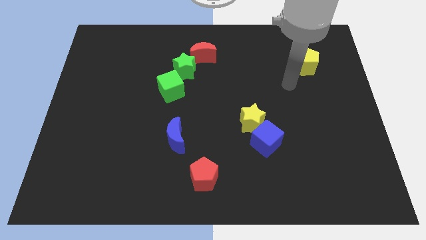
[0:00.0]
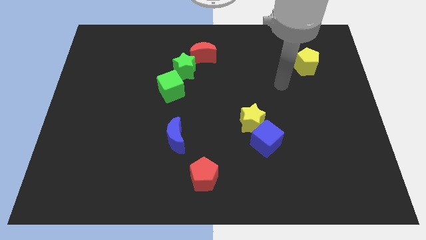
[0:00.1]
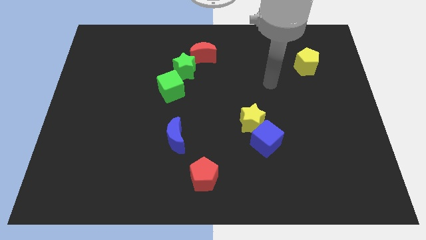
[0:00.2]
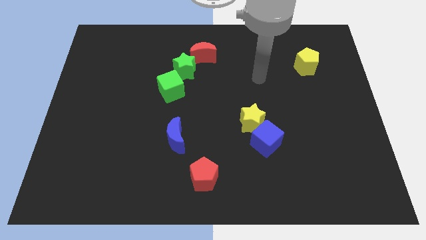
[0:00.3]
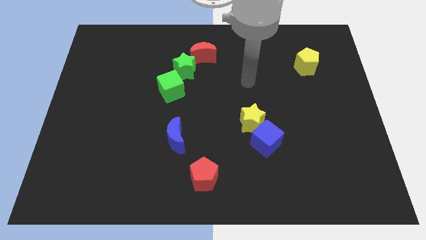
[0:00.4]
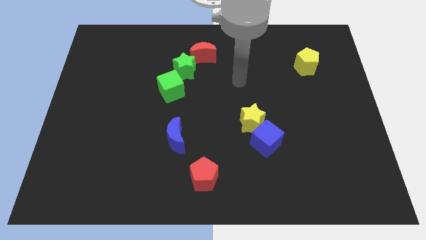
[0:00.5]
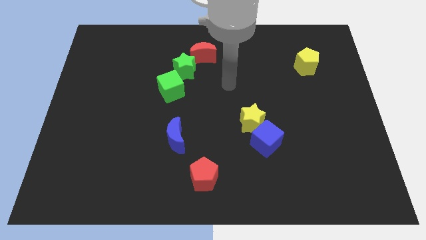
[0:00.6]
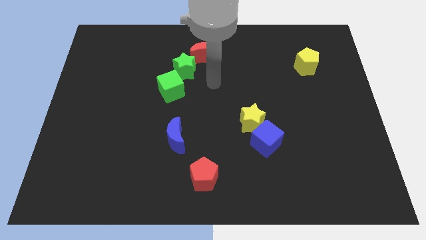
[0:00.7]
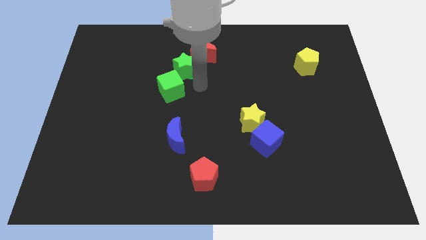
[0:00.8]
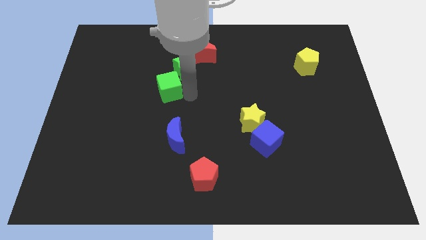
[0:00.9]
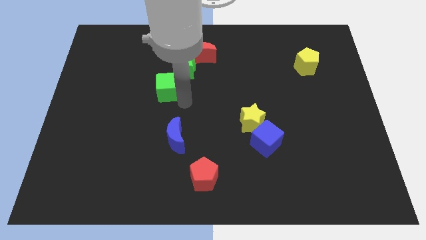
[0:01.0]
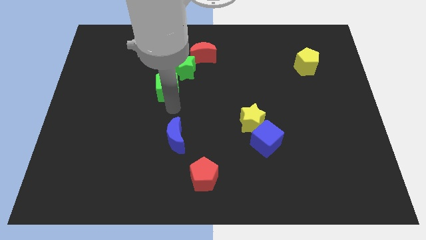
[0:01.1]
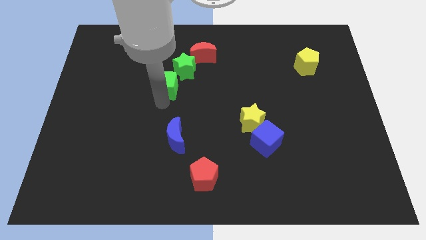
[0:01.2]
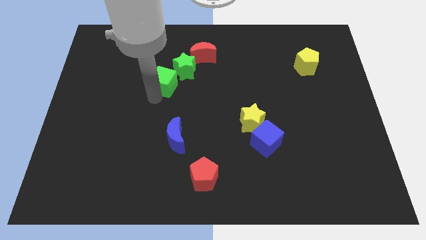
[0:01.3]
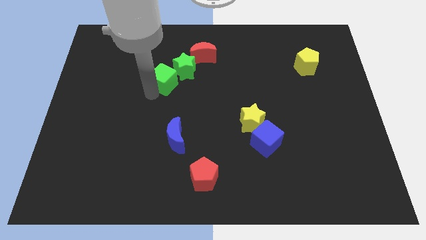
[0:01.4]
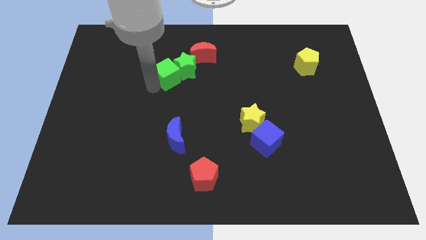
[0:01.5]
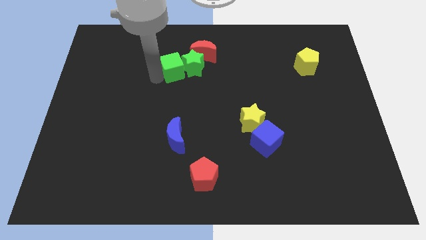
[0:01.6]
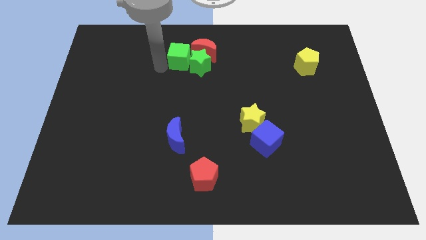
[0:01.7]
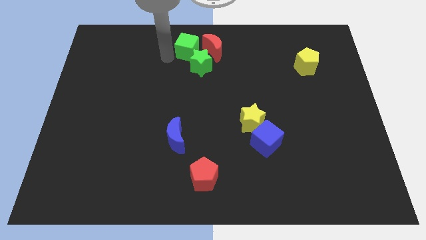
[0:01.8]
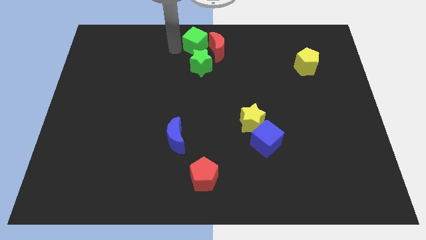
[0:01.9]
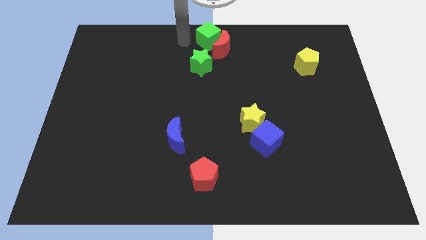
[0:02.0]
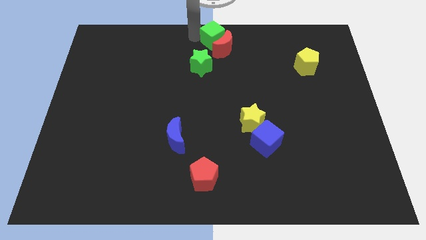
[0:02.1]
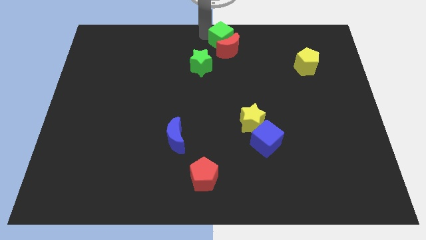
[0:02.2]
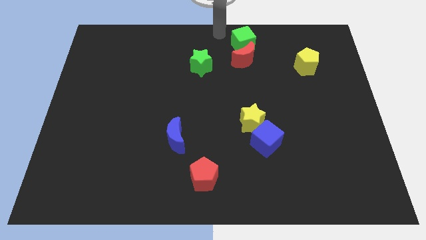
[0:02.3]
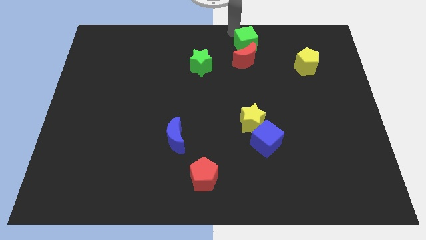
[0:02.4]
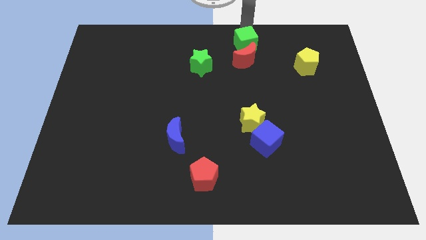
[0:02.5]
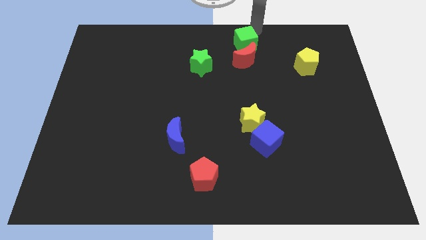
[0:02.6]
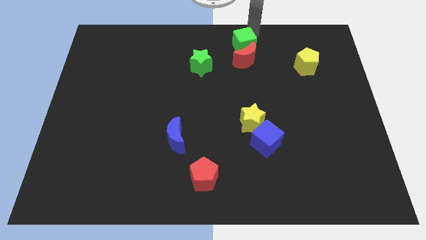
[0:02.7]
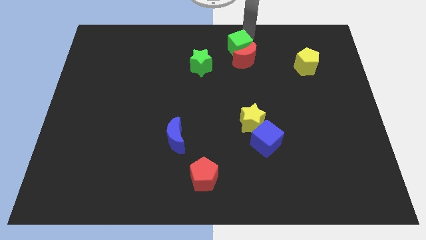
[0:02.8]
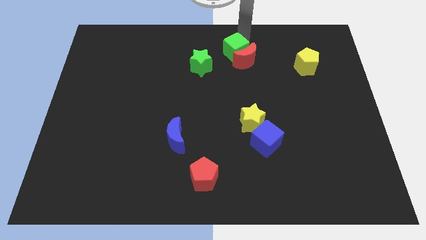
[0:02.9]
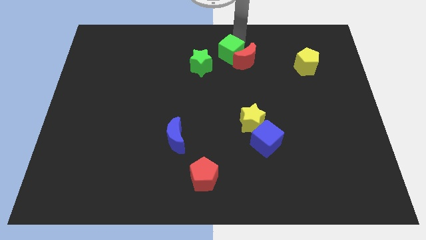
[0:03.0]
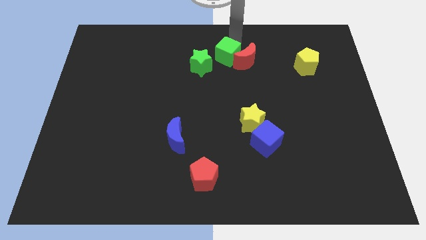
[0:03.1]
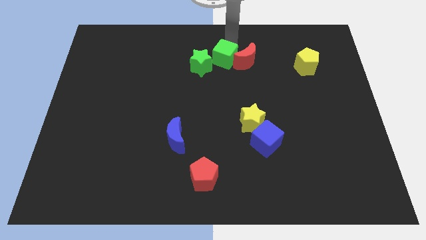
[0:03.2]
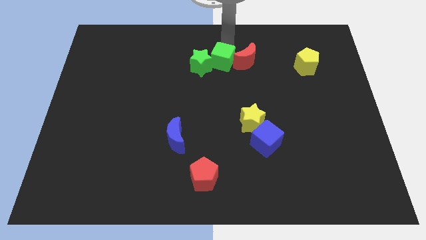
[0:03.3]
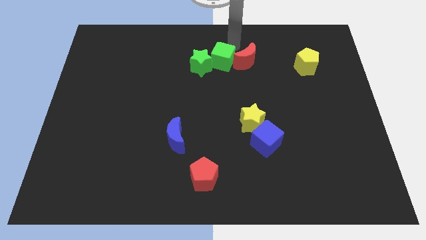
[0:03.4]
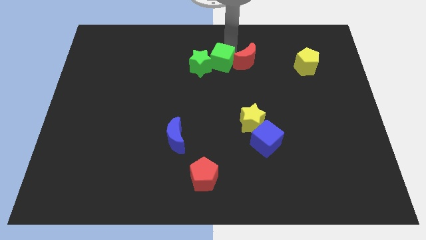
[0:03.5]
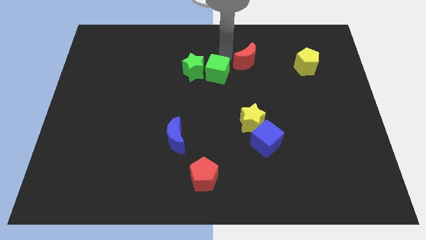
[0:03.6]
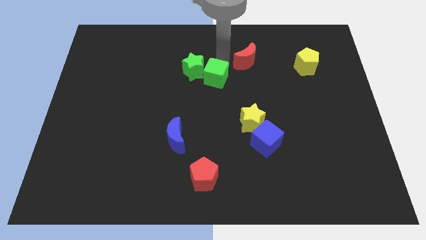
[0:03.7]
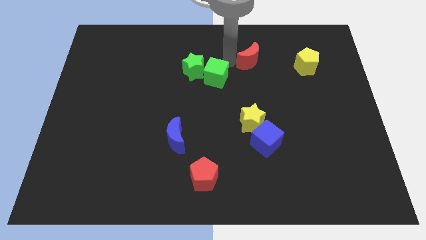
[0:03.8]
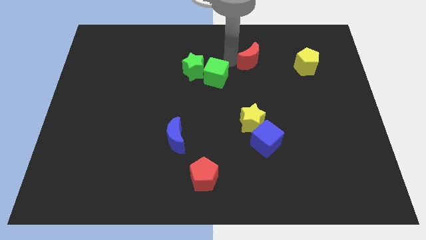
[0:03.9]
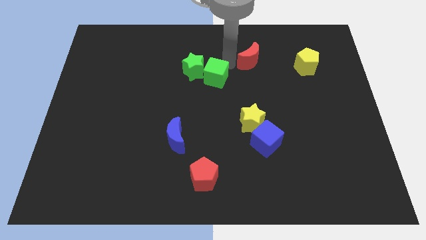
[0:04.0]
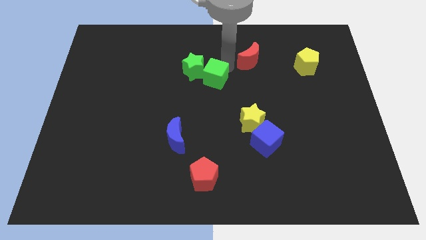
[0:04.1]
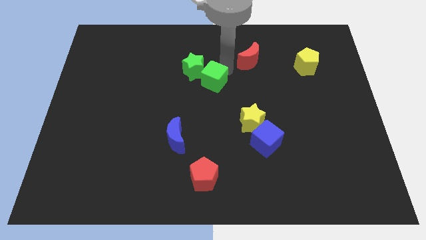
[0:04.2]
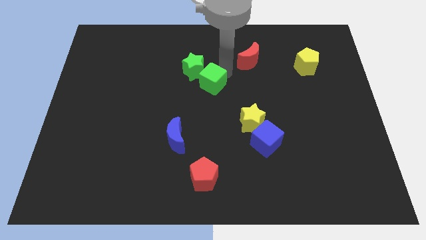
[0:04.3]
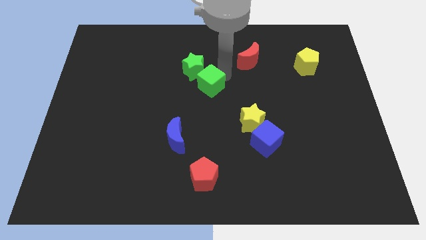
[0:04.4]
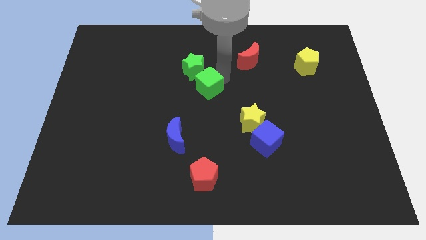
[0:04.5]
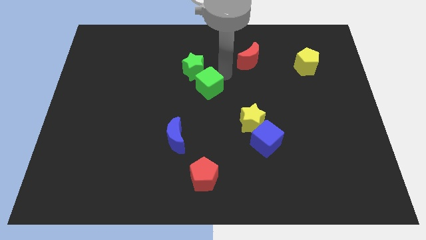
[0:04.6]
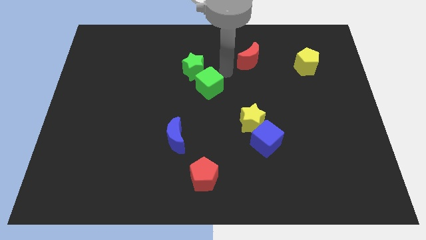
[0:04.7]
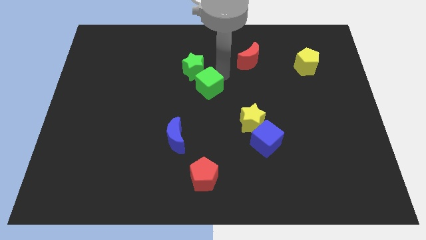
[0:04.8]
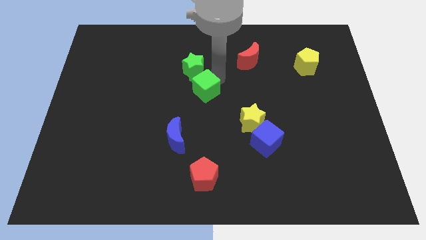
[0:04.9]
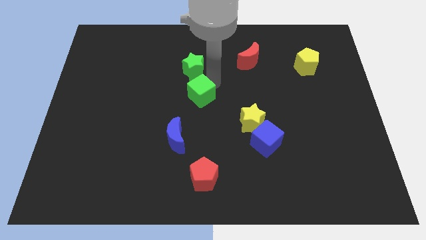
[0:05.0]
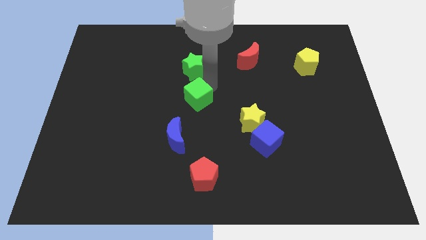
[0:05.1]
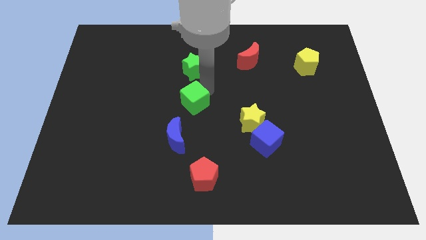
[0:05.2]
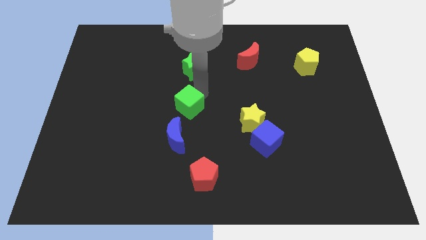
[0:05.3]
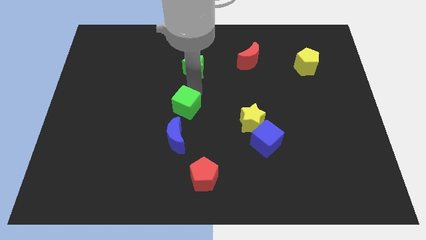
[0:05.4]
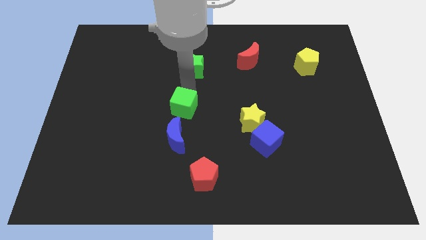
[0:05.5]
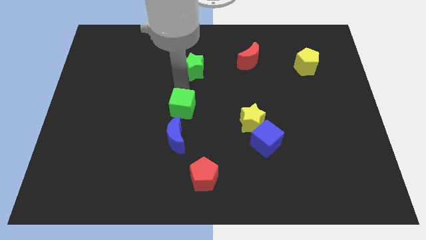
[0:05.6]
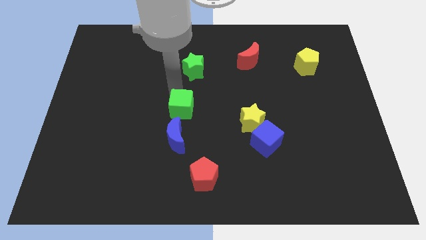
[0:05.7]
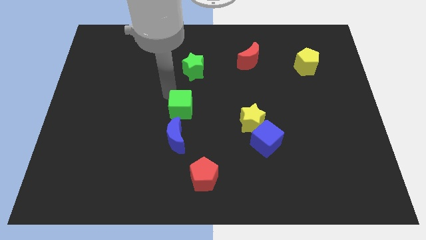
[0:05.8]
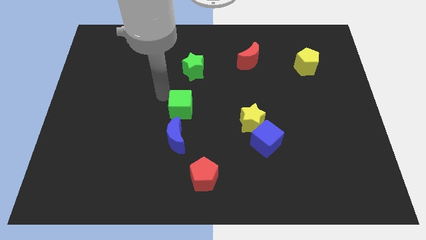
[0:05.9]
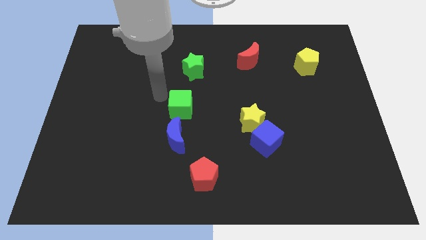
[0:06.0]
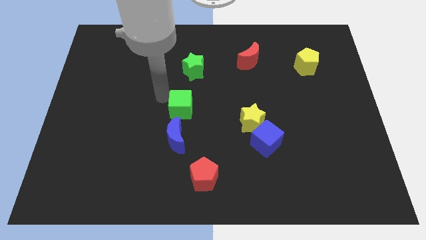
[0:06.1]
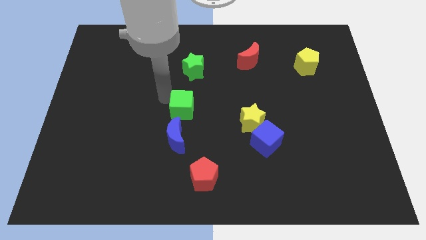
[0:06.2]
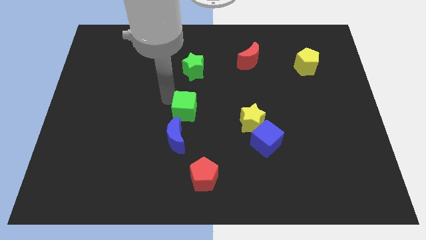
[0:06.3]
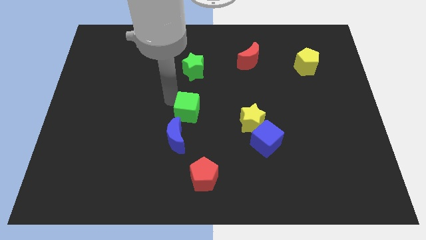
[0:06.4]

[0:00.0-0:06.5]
move the green cube just left of the yellow star

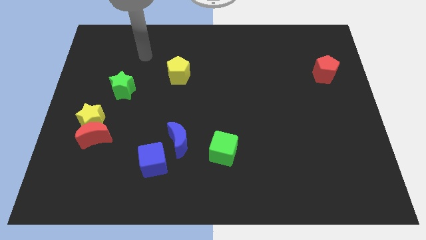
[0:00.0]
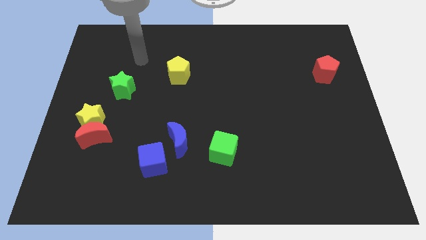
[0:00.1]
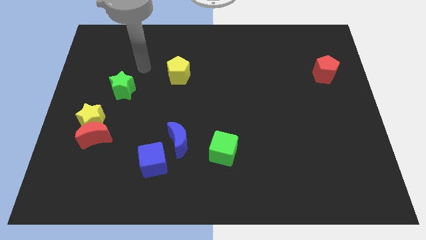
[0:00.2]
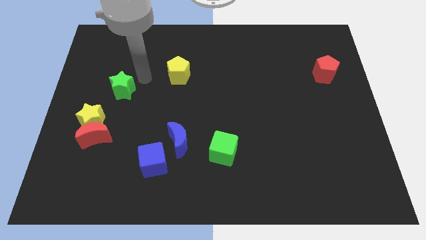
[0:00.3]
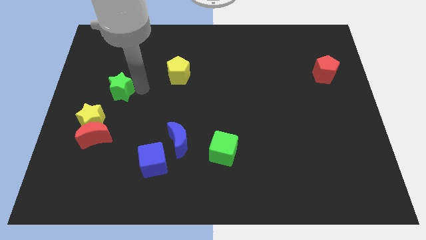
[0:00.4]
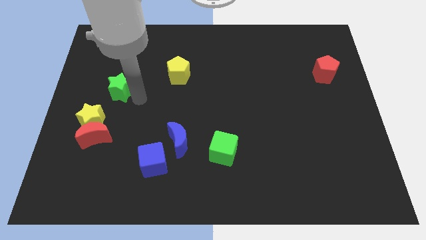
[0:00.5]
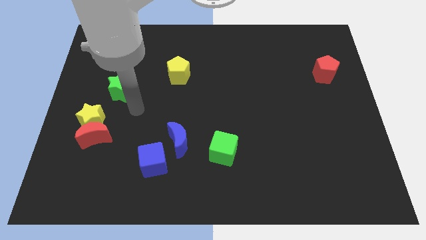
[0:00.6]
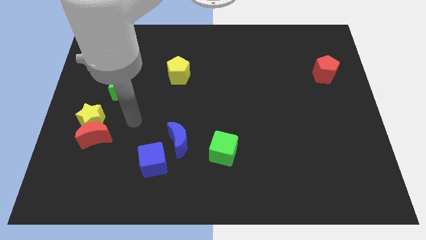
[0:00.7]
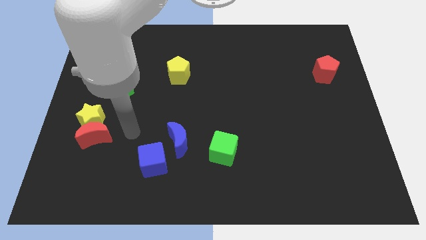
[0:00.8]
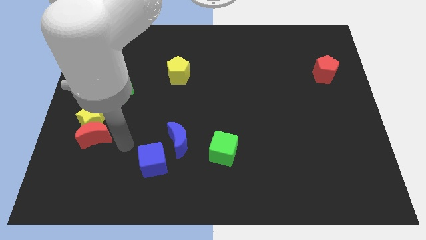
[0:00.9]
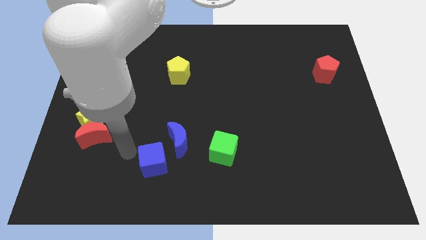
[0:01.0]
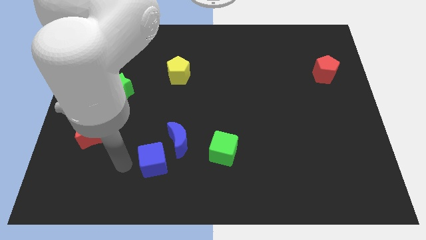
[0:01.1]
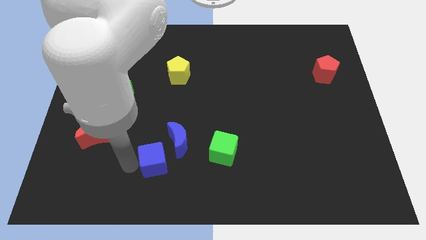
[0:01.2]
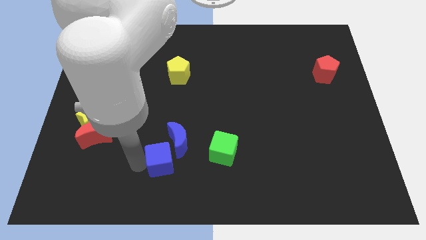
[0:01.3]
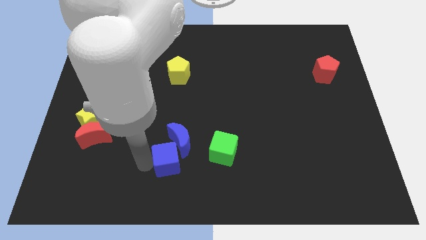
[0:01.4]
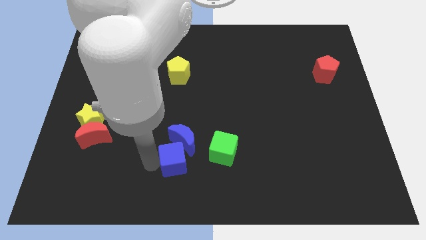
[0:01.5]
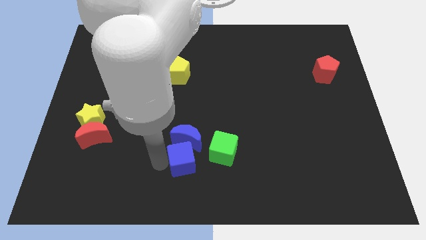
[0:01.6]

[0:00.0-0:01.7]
push the blue cube diagonally down and to the right of the blue moon
